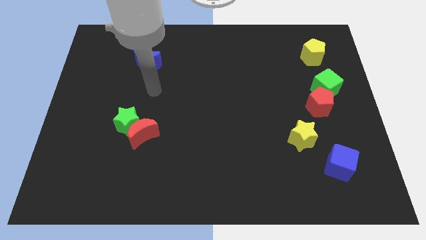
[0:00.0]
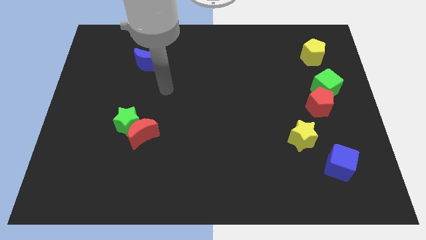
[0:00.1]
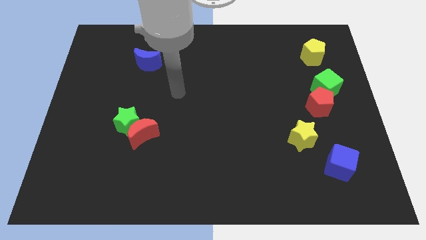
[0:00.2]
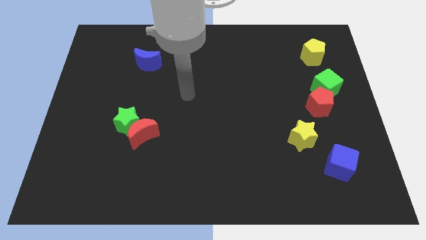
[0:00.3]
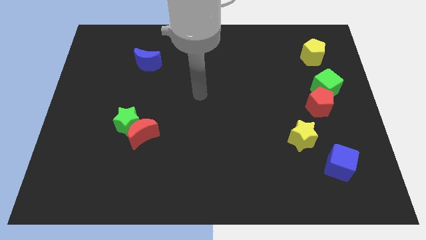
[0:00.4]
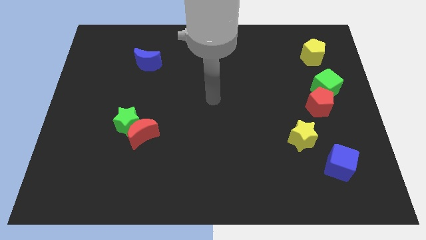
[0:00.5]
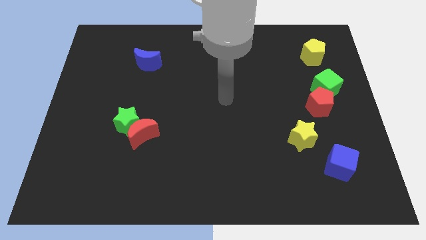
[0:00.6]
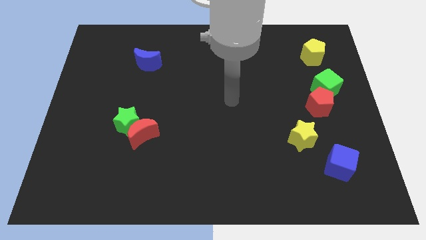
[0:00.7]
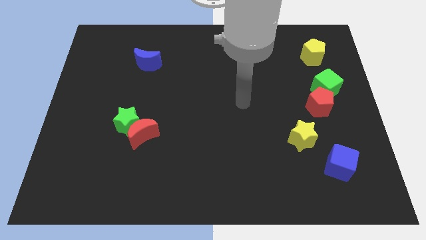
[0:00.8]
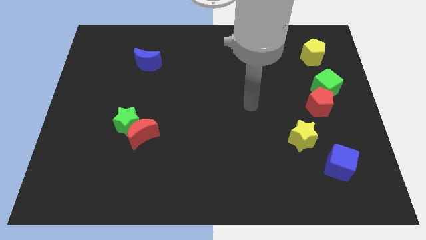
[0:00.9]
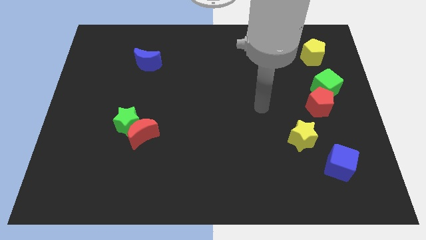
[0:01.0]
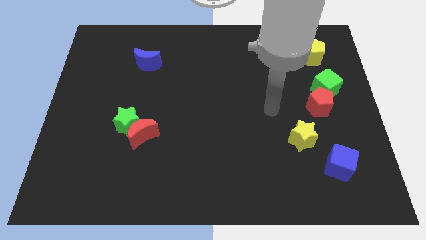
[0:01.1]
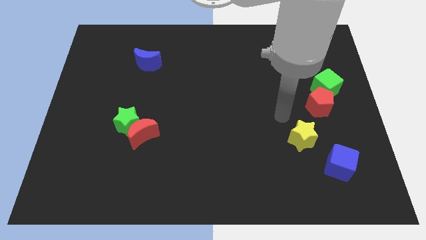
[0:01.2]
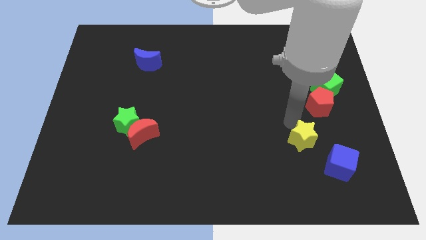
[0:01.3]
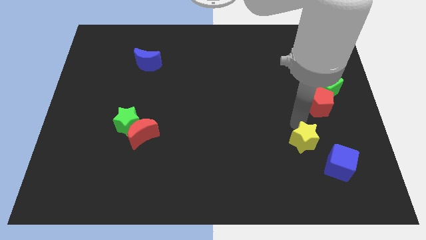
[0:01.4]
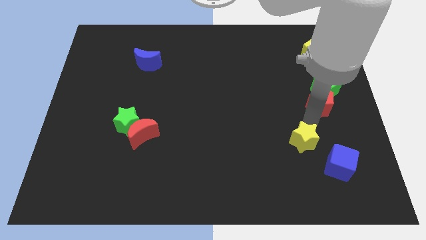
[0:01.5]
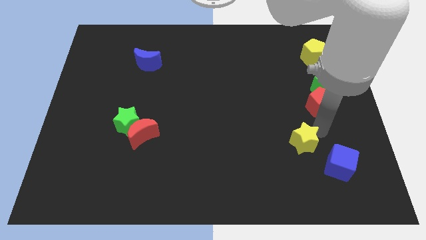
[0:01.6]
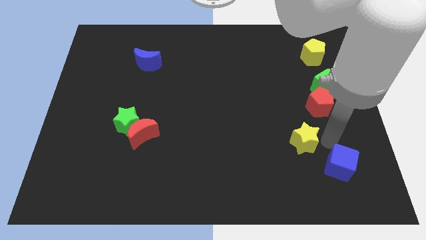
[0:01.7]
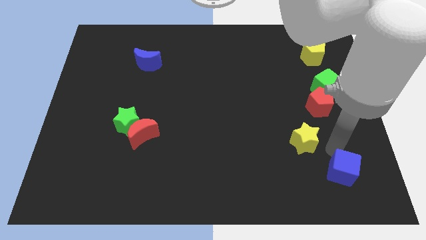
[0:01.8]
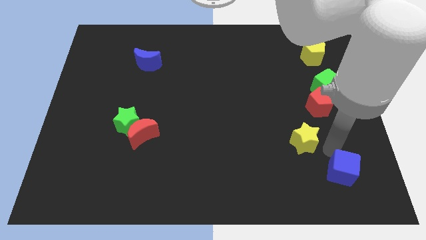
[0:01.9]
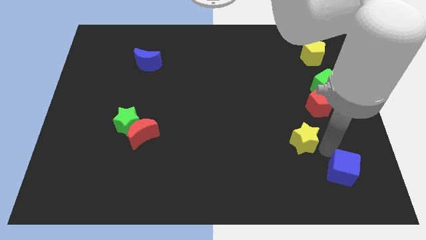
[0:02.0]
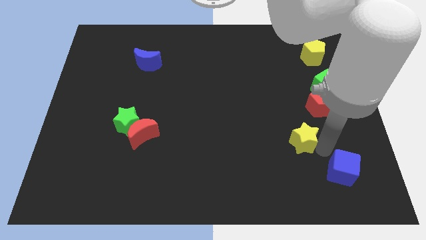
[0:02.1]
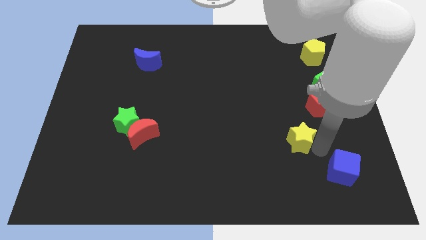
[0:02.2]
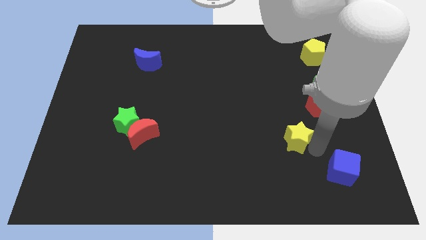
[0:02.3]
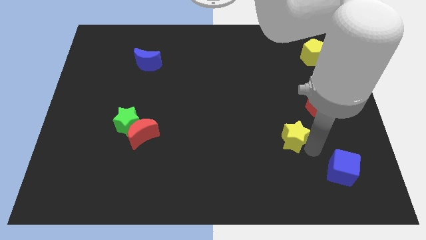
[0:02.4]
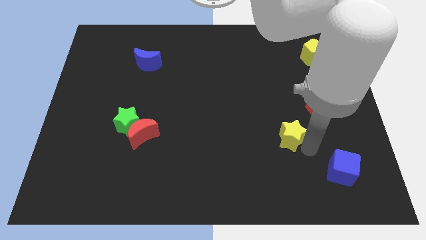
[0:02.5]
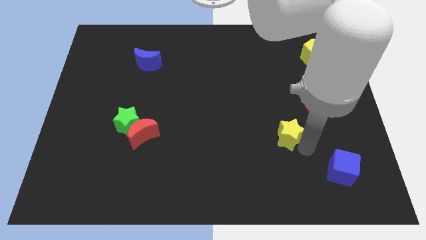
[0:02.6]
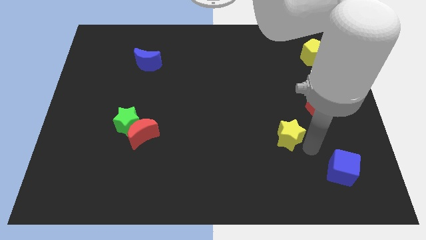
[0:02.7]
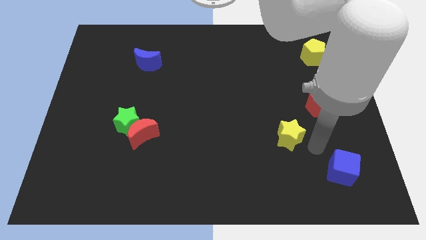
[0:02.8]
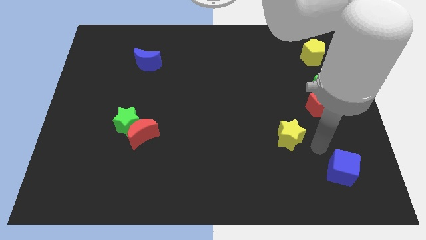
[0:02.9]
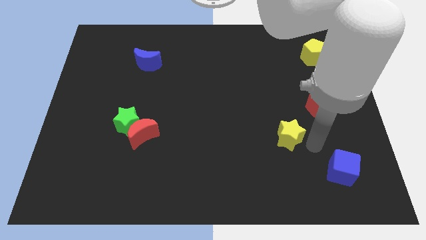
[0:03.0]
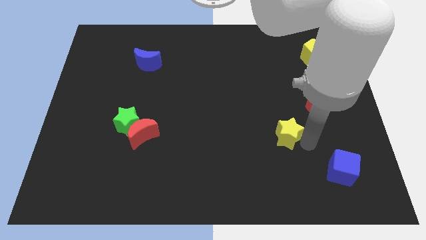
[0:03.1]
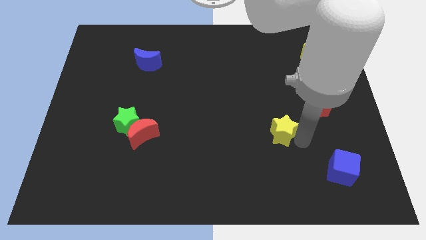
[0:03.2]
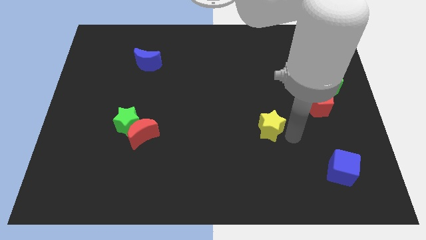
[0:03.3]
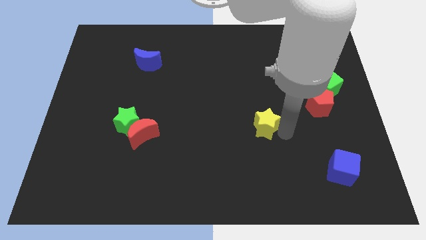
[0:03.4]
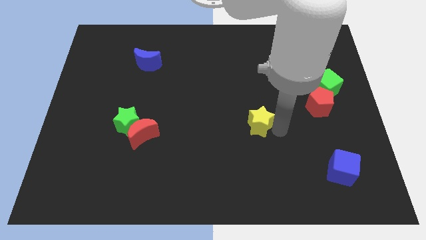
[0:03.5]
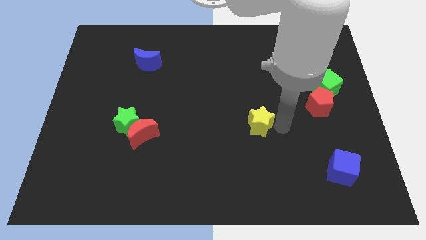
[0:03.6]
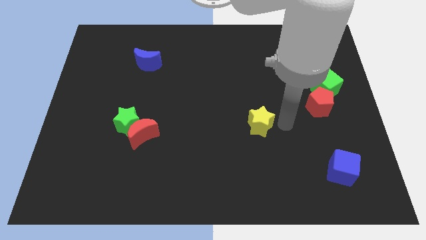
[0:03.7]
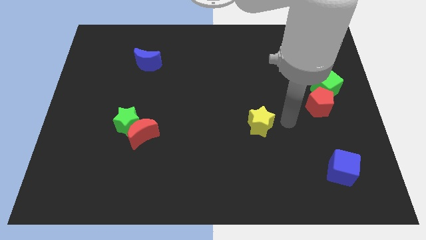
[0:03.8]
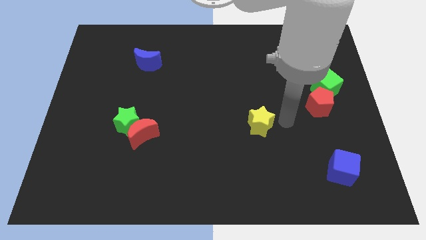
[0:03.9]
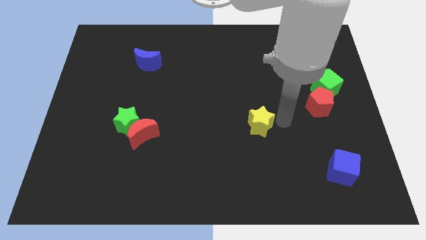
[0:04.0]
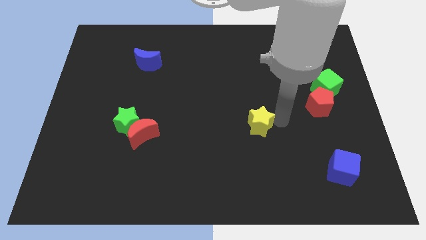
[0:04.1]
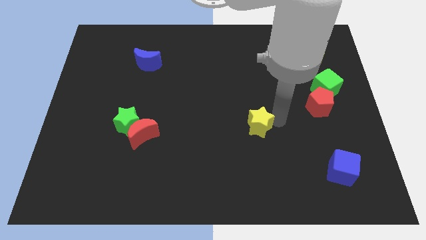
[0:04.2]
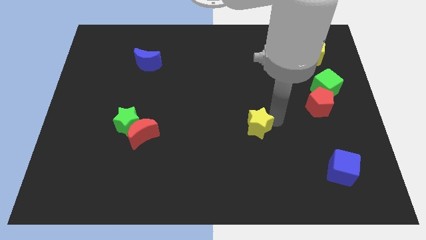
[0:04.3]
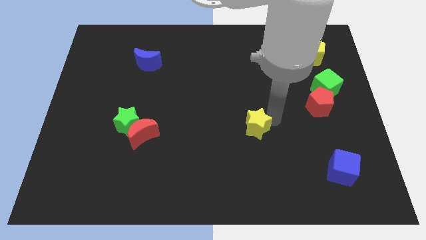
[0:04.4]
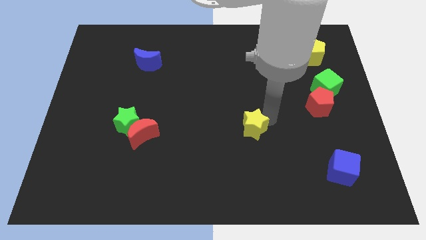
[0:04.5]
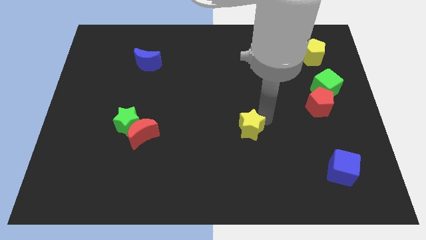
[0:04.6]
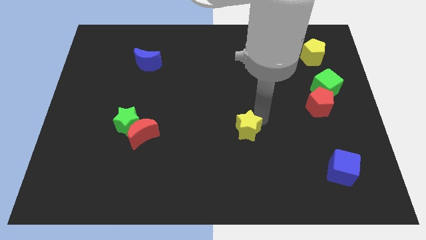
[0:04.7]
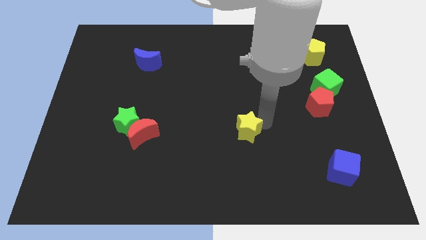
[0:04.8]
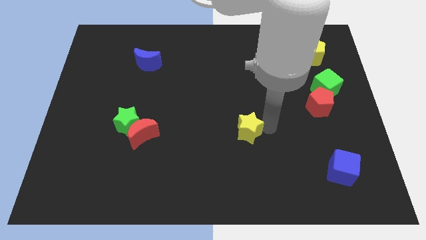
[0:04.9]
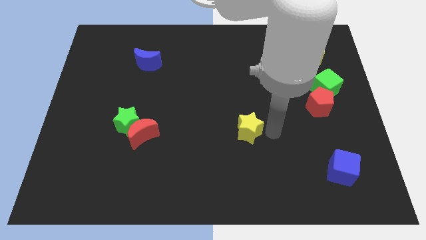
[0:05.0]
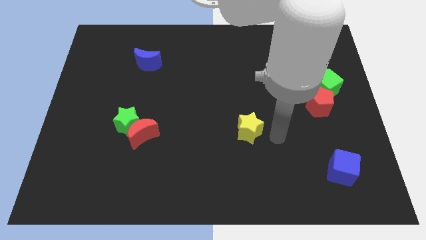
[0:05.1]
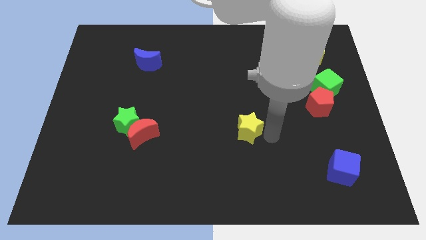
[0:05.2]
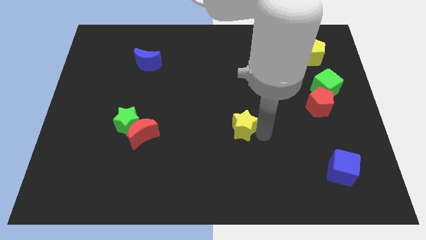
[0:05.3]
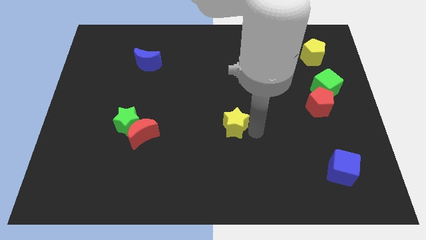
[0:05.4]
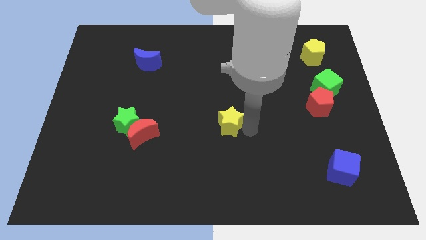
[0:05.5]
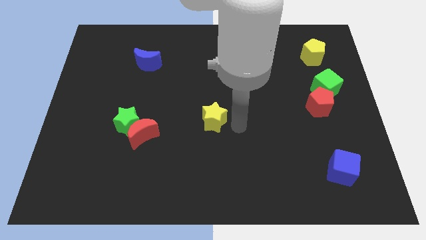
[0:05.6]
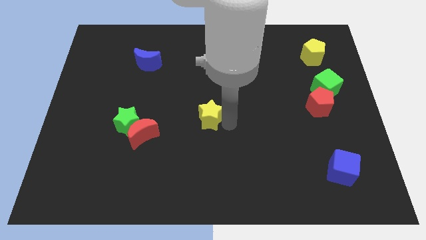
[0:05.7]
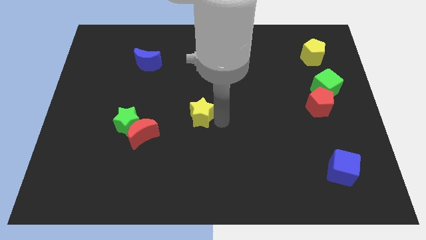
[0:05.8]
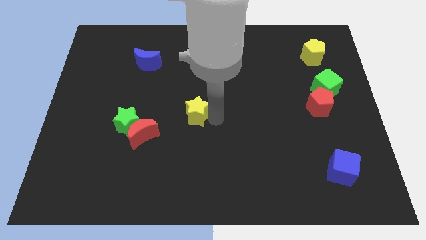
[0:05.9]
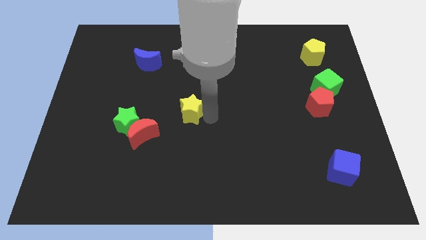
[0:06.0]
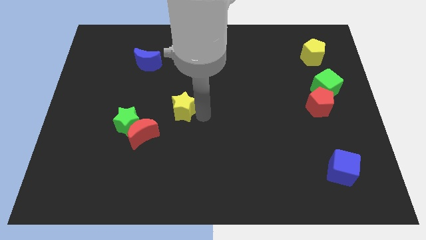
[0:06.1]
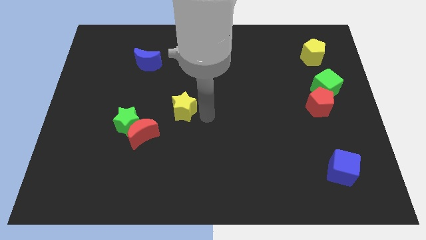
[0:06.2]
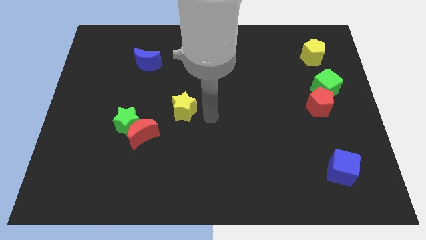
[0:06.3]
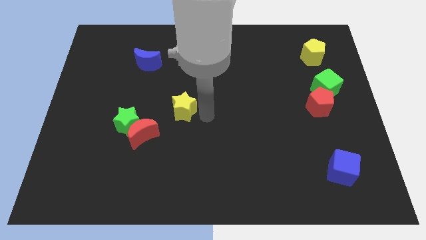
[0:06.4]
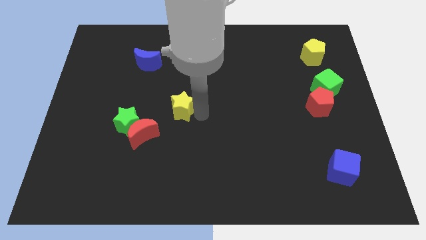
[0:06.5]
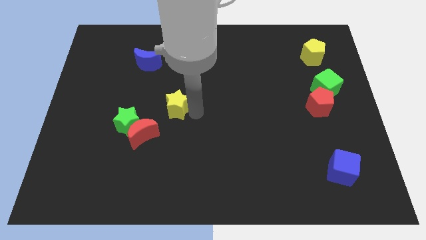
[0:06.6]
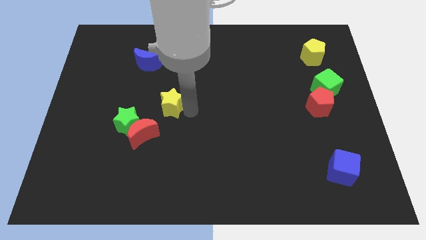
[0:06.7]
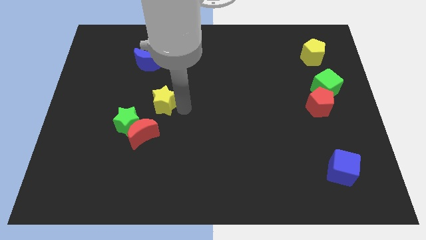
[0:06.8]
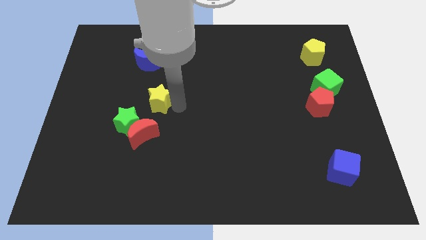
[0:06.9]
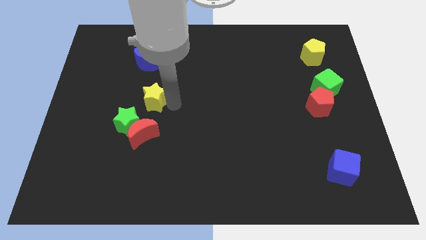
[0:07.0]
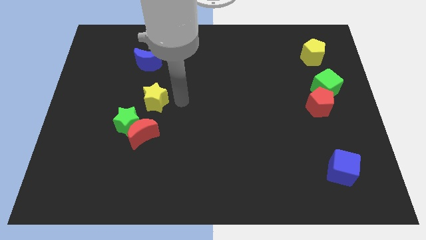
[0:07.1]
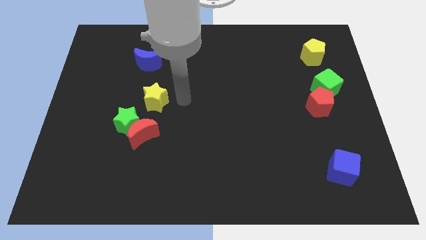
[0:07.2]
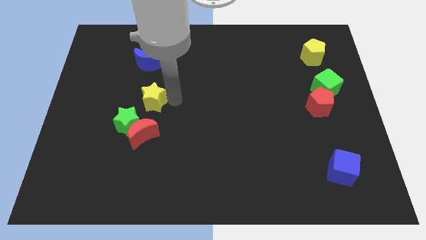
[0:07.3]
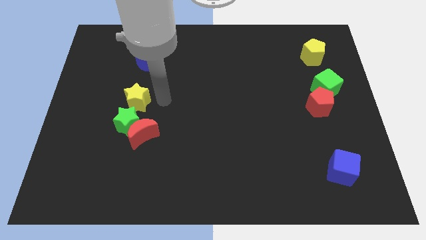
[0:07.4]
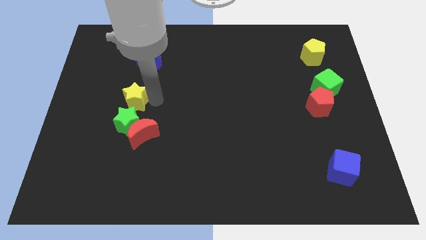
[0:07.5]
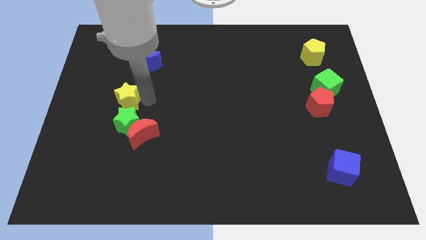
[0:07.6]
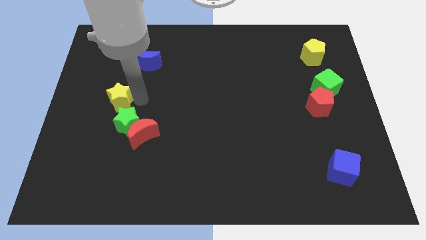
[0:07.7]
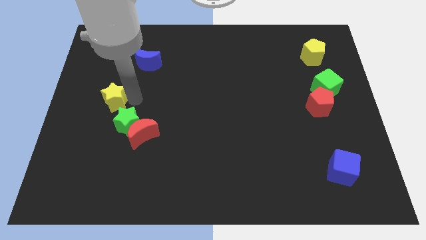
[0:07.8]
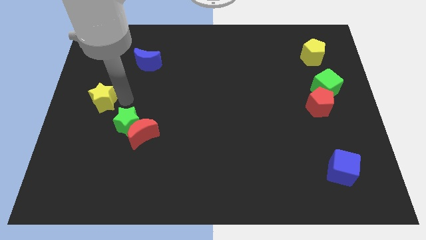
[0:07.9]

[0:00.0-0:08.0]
slide the yellow star to the left side of the board

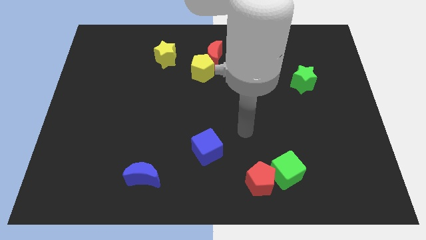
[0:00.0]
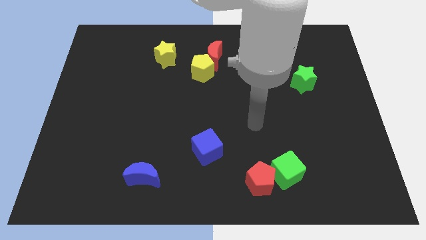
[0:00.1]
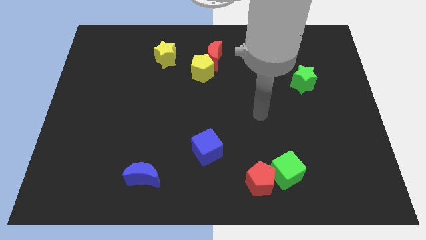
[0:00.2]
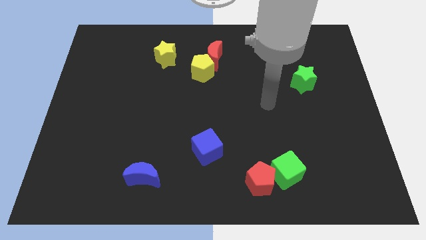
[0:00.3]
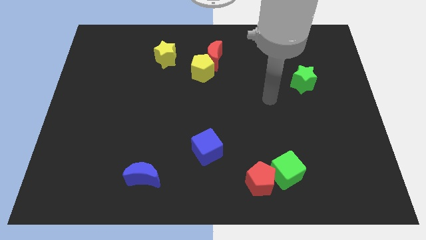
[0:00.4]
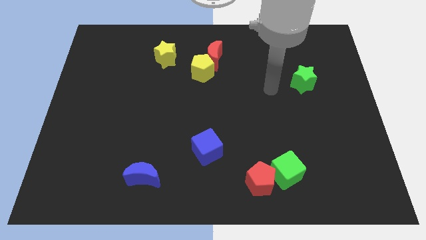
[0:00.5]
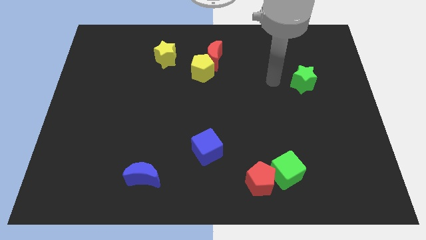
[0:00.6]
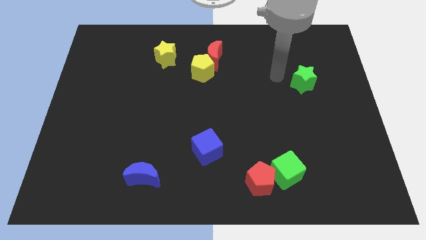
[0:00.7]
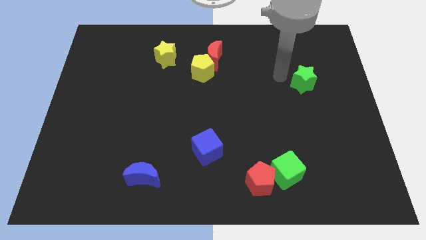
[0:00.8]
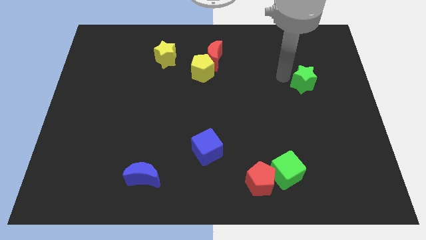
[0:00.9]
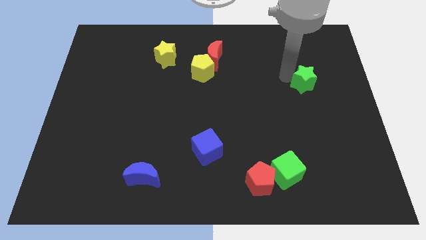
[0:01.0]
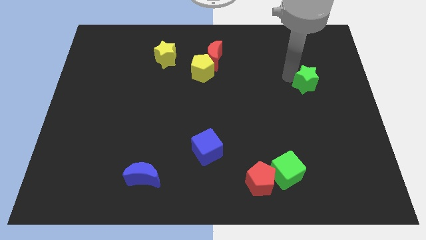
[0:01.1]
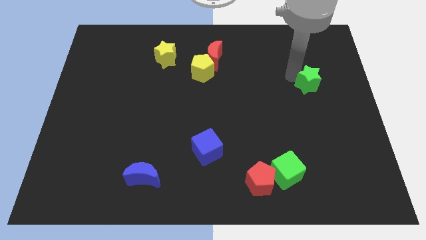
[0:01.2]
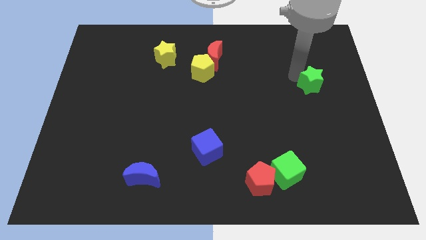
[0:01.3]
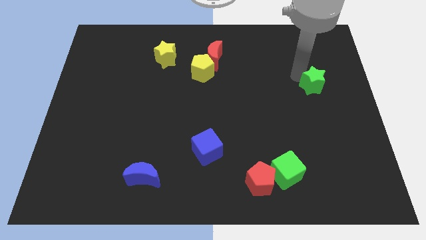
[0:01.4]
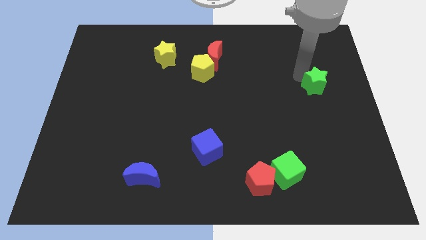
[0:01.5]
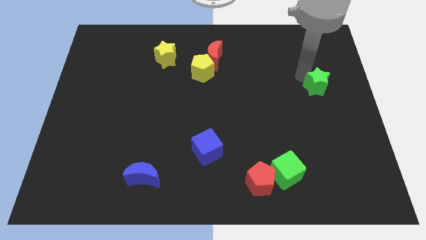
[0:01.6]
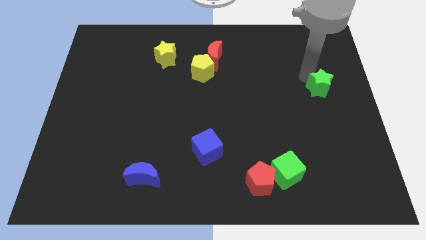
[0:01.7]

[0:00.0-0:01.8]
push the green star to the right side
